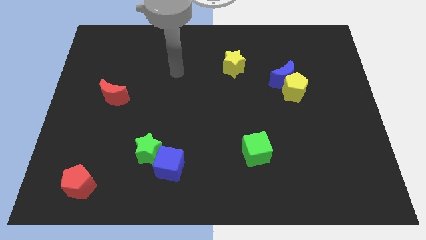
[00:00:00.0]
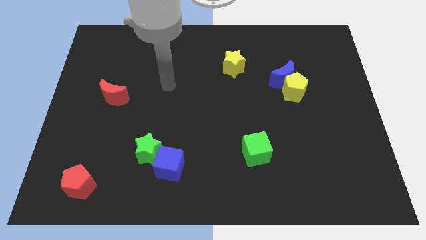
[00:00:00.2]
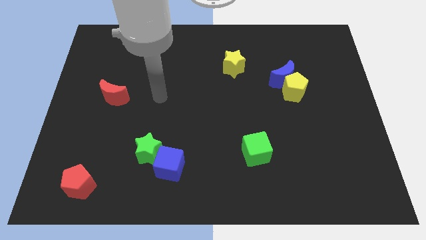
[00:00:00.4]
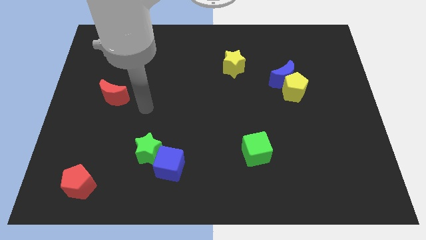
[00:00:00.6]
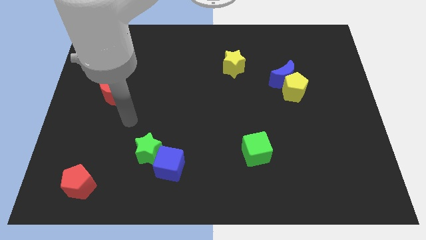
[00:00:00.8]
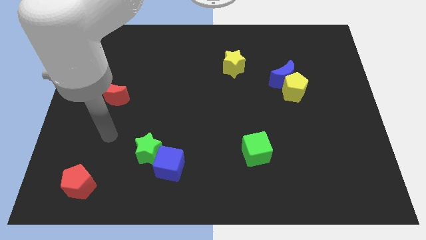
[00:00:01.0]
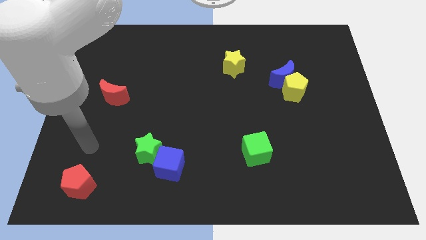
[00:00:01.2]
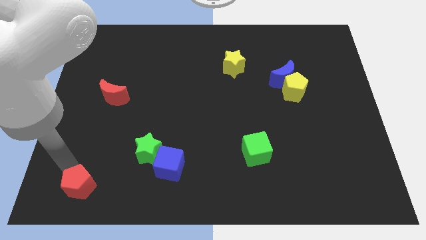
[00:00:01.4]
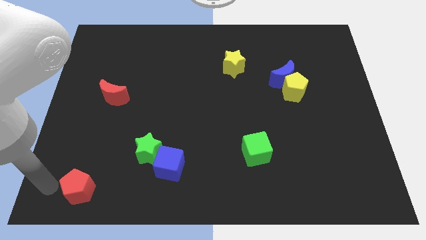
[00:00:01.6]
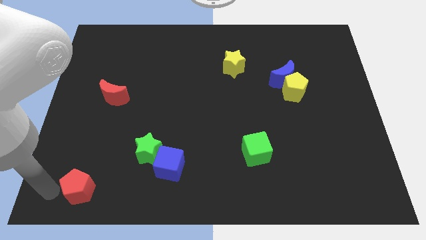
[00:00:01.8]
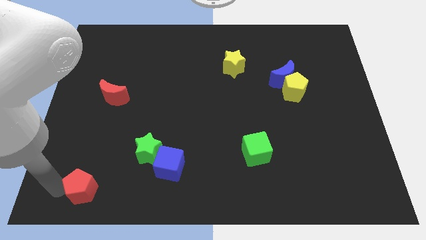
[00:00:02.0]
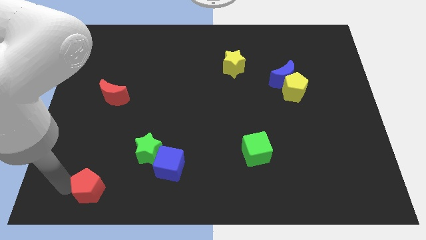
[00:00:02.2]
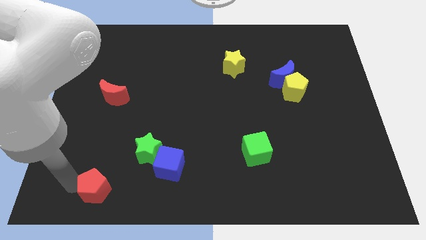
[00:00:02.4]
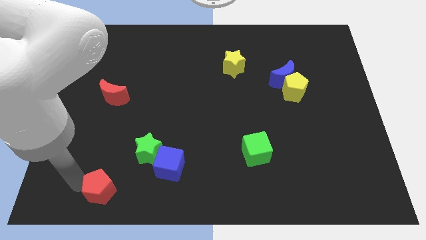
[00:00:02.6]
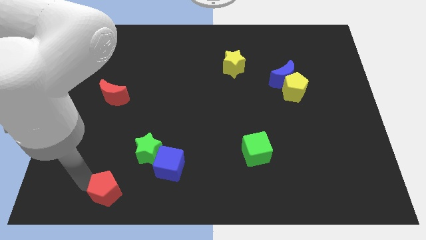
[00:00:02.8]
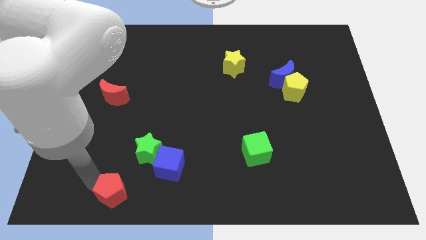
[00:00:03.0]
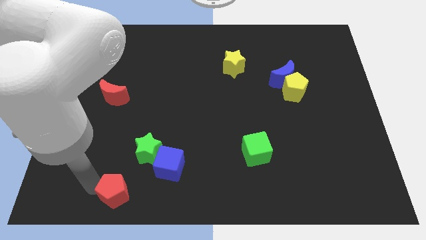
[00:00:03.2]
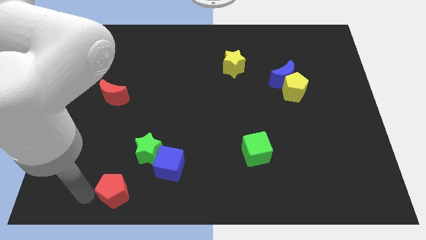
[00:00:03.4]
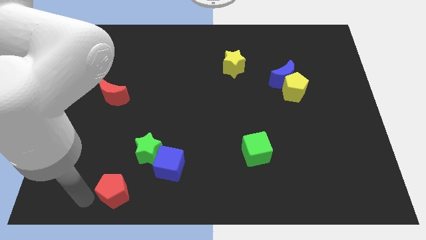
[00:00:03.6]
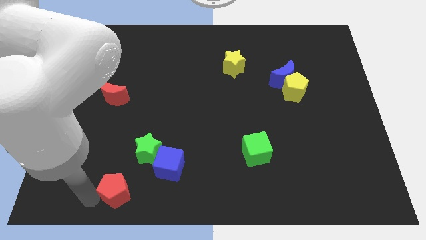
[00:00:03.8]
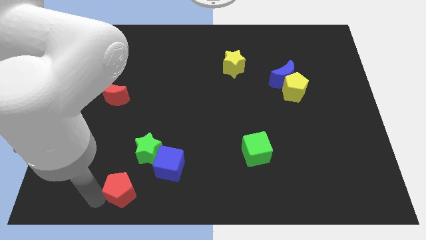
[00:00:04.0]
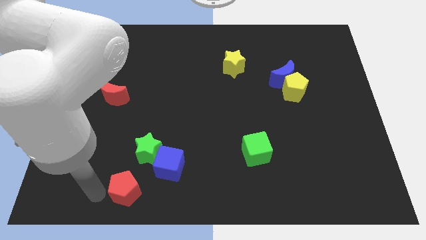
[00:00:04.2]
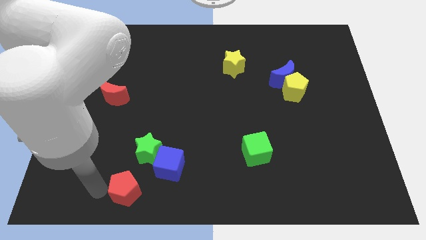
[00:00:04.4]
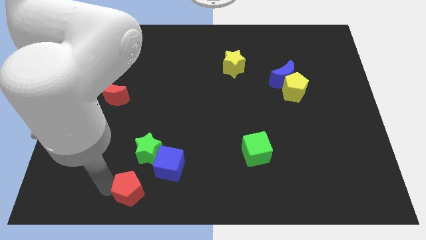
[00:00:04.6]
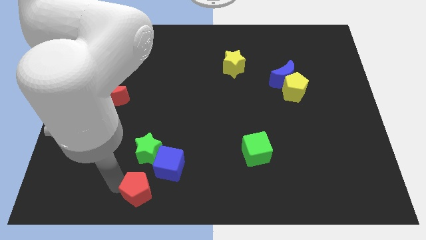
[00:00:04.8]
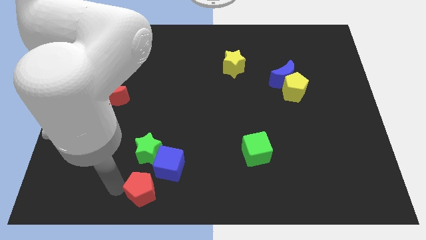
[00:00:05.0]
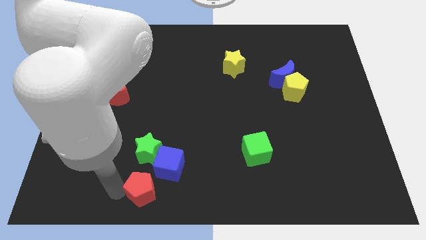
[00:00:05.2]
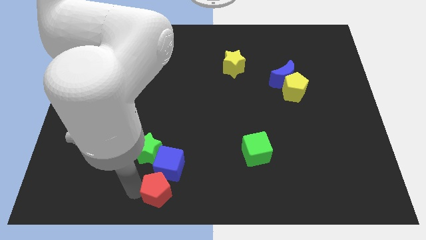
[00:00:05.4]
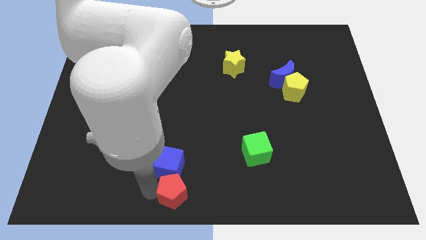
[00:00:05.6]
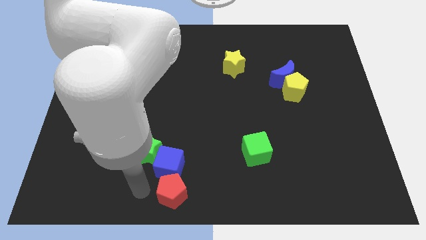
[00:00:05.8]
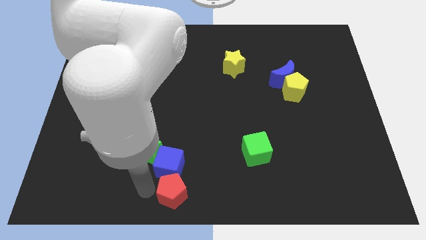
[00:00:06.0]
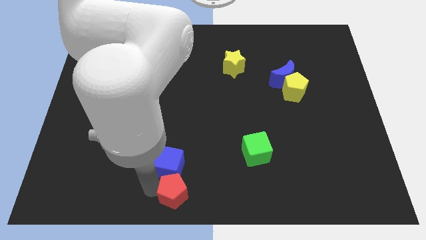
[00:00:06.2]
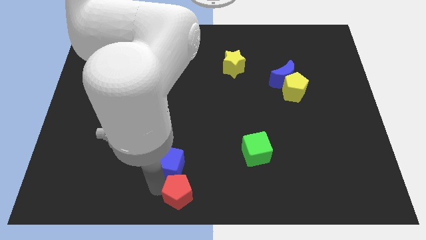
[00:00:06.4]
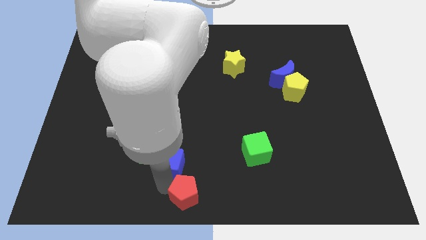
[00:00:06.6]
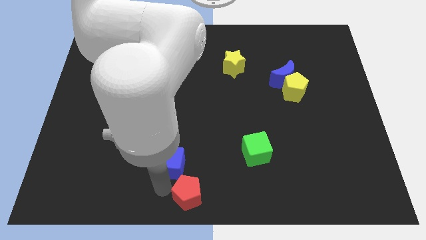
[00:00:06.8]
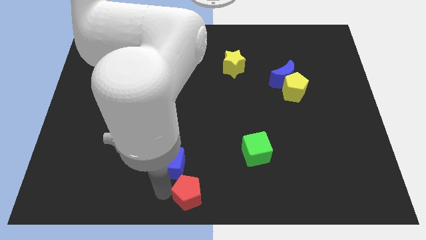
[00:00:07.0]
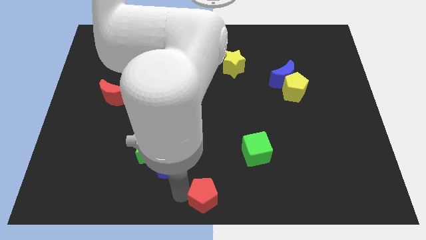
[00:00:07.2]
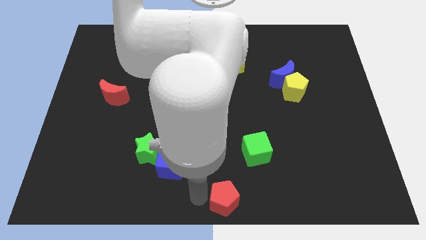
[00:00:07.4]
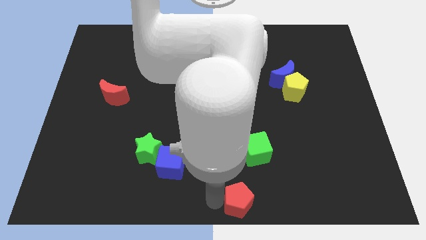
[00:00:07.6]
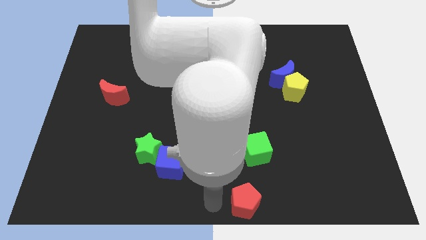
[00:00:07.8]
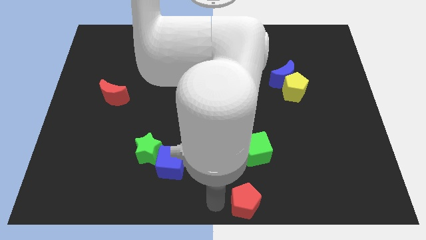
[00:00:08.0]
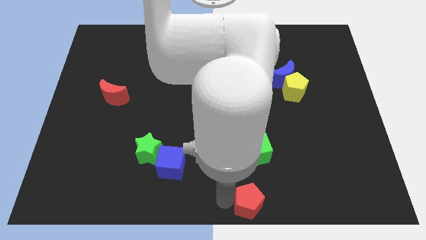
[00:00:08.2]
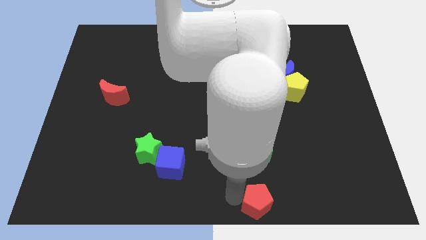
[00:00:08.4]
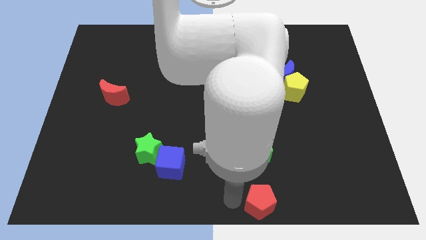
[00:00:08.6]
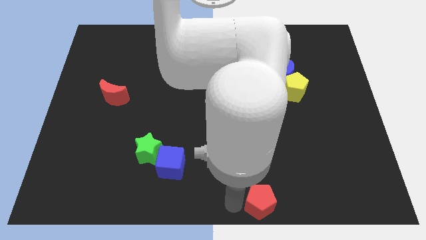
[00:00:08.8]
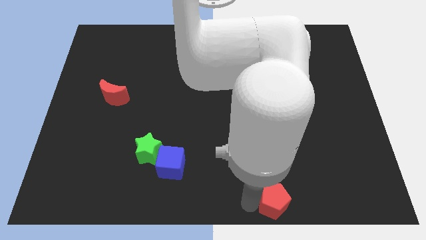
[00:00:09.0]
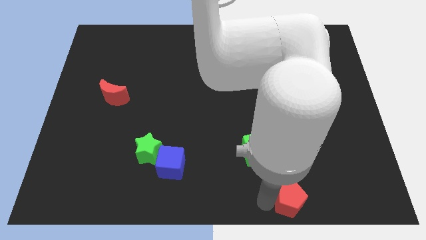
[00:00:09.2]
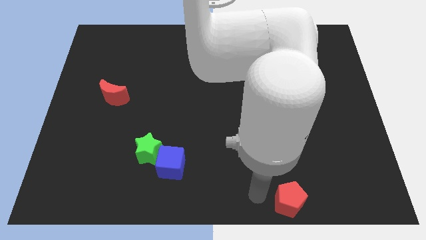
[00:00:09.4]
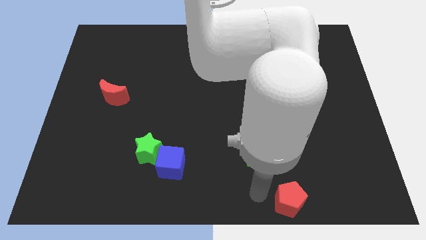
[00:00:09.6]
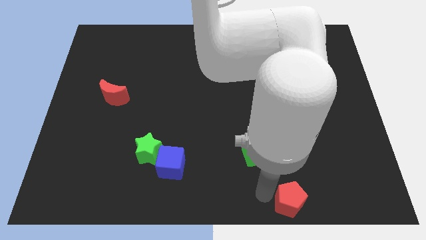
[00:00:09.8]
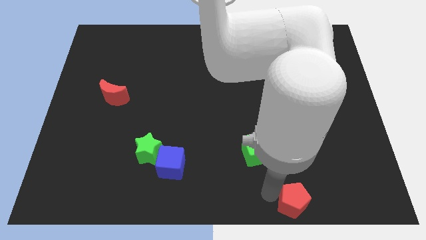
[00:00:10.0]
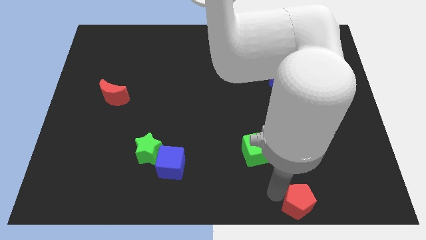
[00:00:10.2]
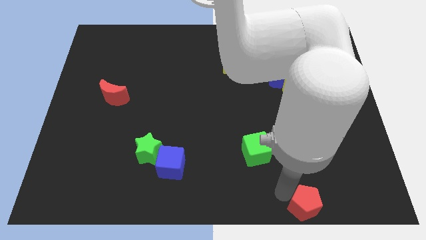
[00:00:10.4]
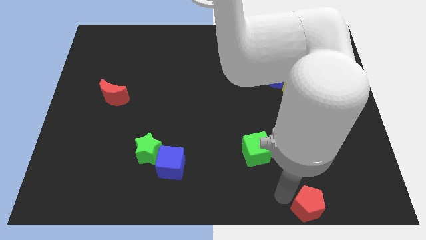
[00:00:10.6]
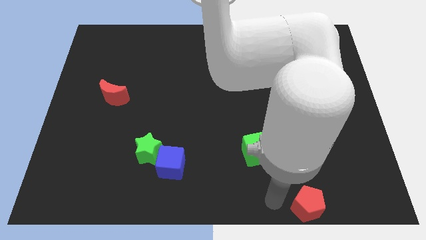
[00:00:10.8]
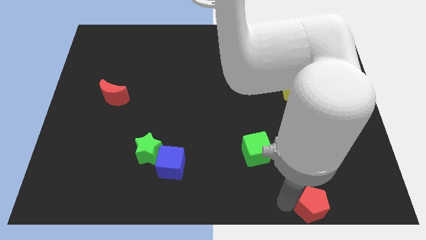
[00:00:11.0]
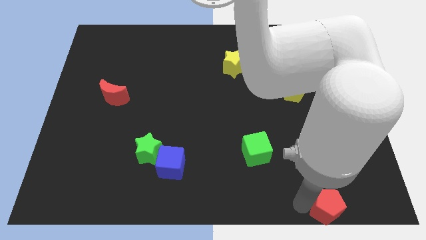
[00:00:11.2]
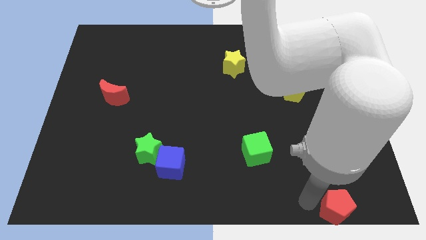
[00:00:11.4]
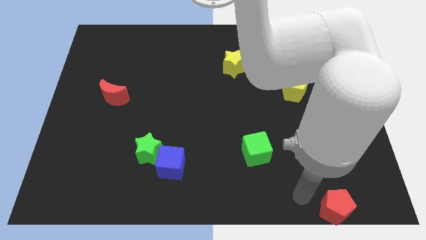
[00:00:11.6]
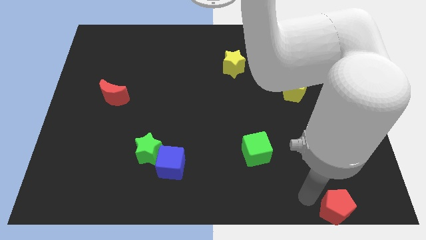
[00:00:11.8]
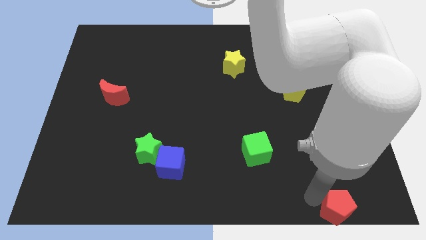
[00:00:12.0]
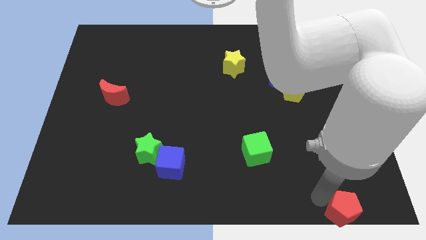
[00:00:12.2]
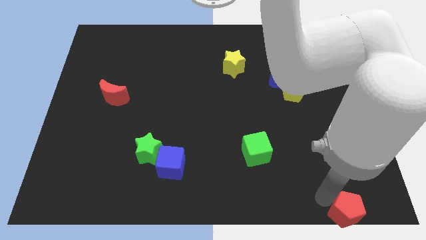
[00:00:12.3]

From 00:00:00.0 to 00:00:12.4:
slide the red pentagon to the lower right corner
